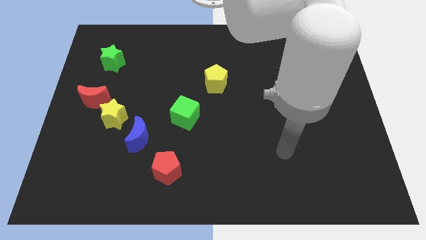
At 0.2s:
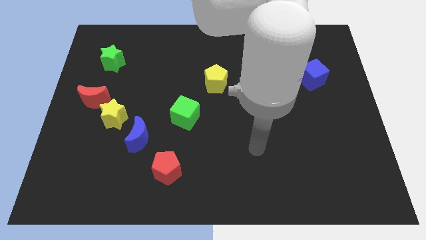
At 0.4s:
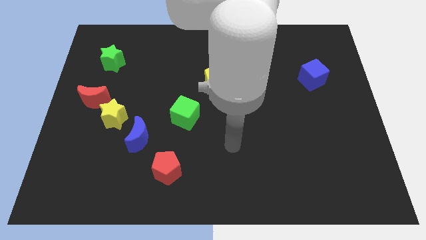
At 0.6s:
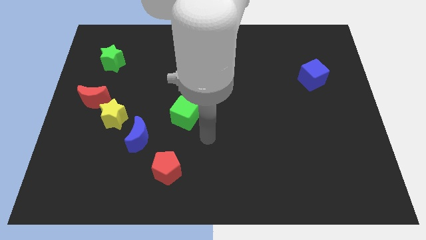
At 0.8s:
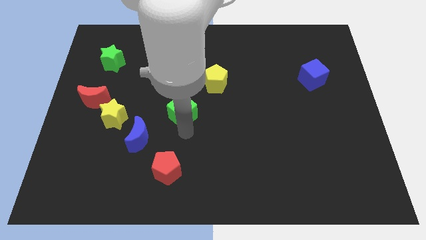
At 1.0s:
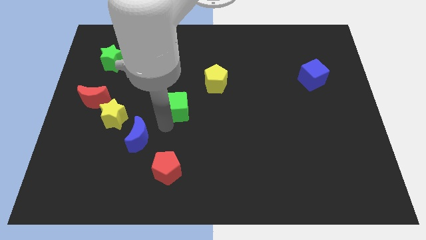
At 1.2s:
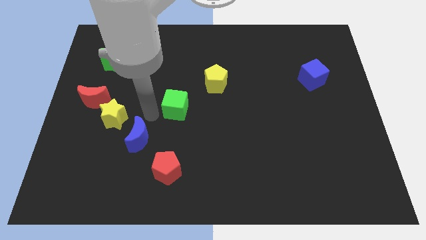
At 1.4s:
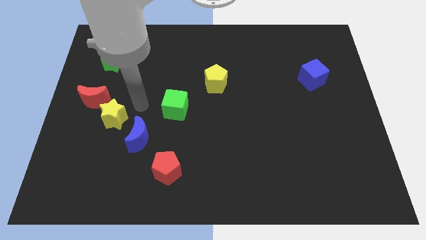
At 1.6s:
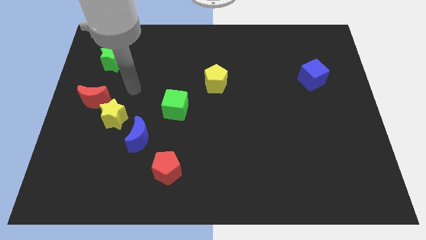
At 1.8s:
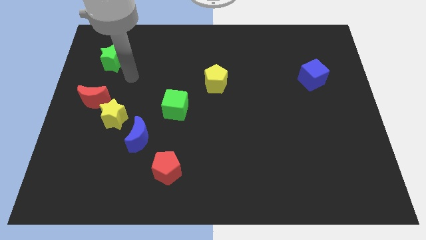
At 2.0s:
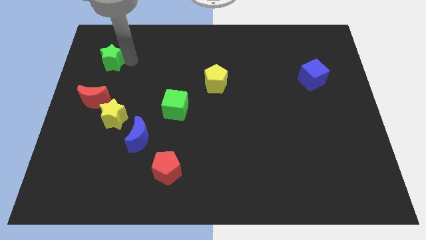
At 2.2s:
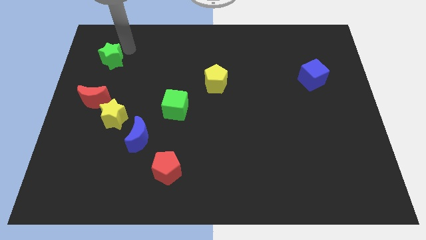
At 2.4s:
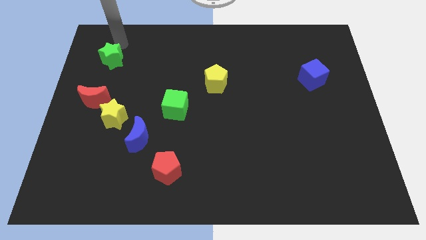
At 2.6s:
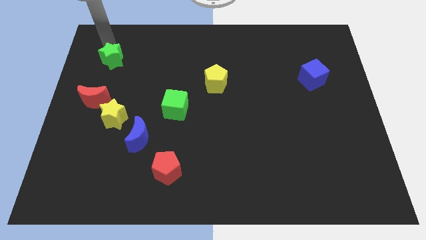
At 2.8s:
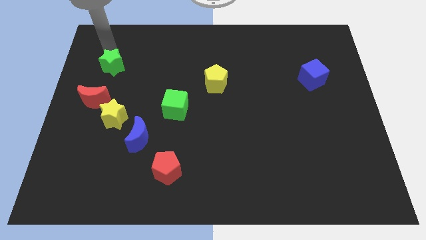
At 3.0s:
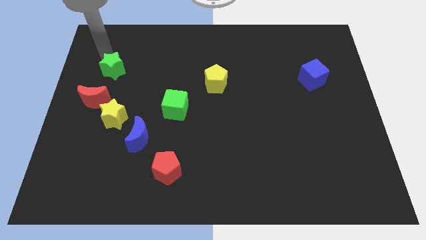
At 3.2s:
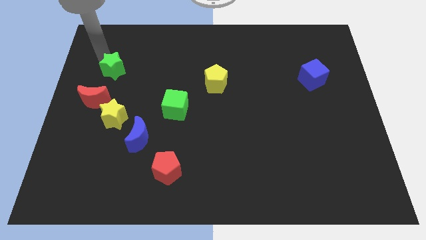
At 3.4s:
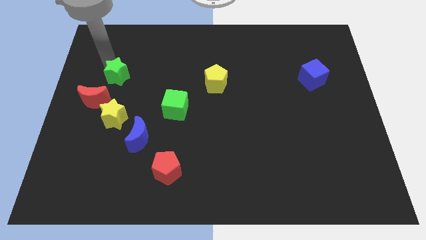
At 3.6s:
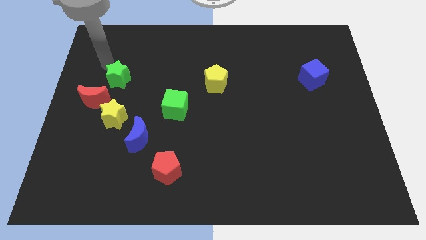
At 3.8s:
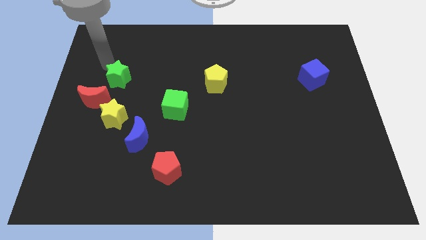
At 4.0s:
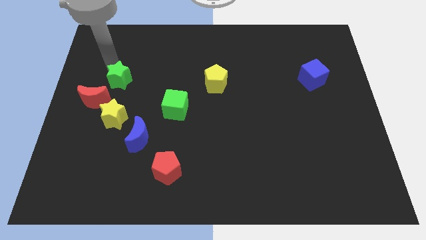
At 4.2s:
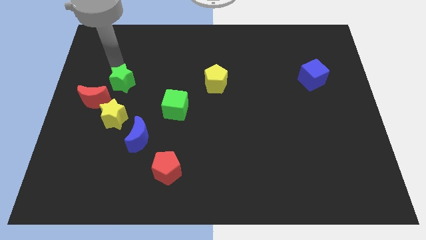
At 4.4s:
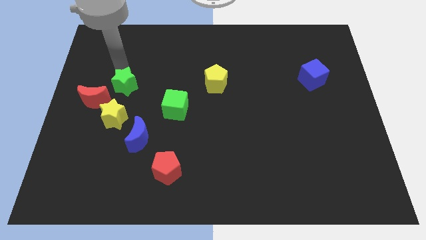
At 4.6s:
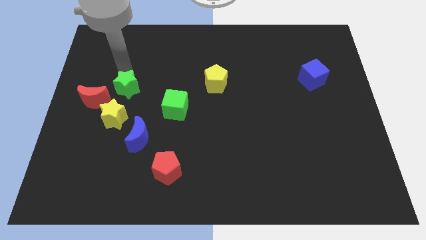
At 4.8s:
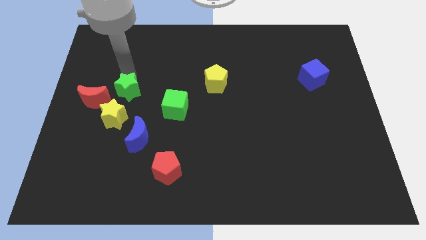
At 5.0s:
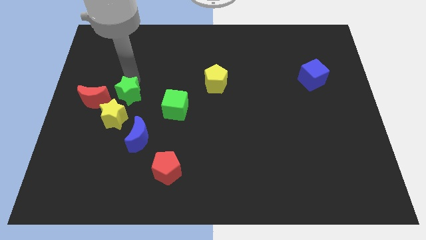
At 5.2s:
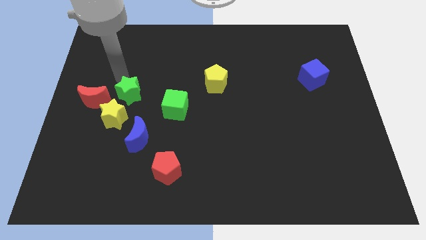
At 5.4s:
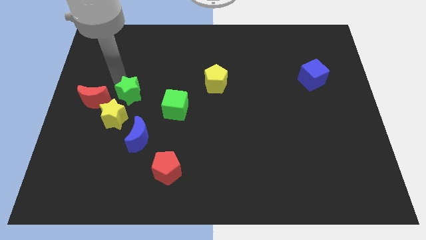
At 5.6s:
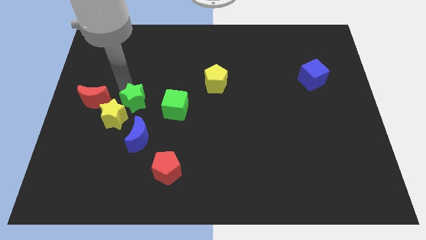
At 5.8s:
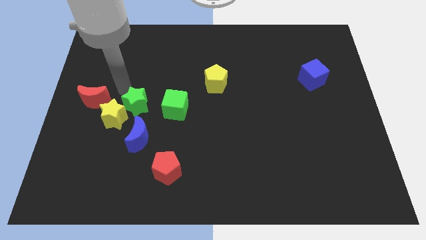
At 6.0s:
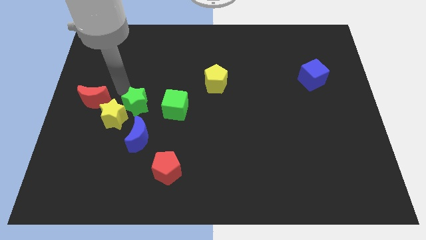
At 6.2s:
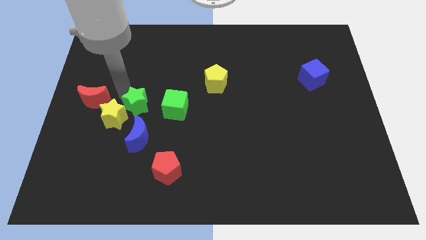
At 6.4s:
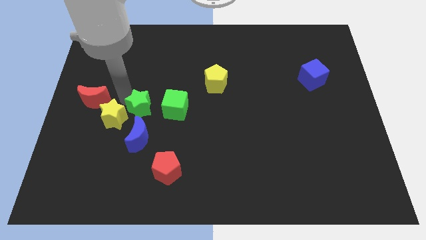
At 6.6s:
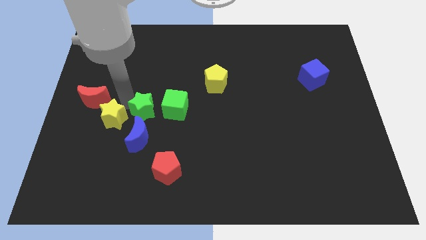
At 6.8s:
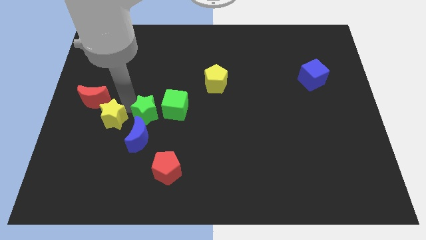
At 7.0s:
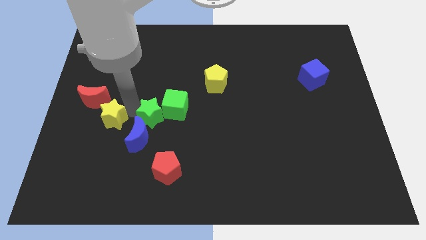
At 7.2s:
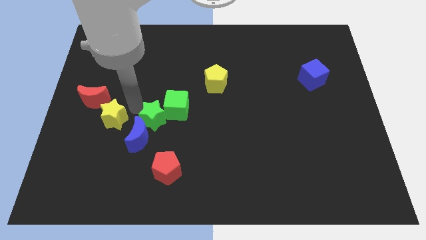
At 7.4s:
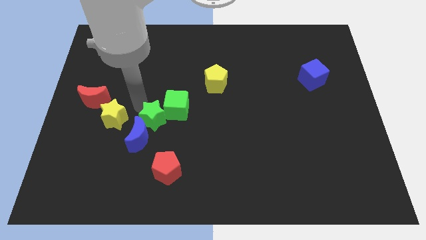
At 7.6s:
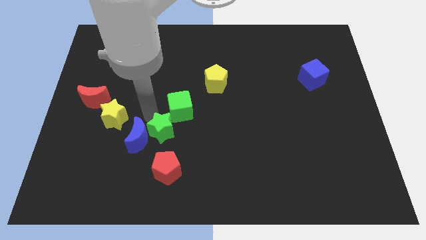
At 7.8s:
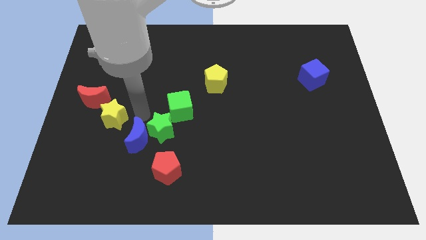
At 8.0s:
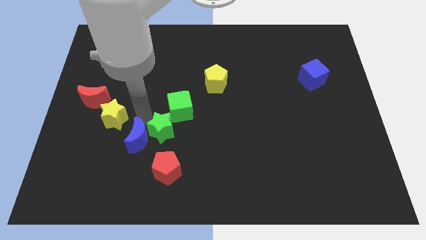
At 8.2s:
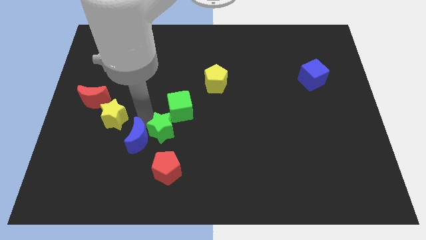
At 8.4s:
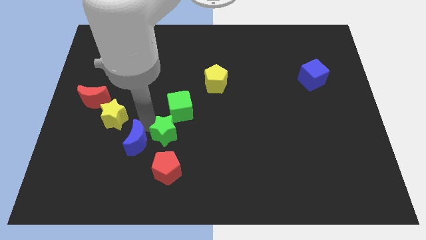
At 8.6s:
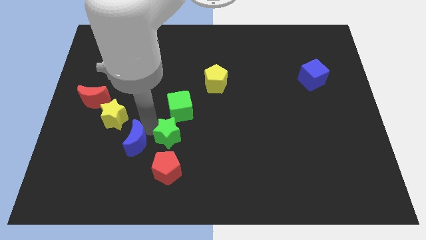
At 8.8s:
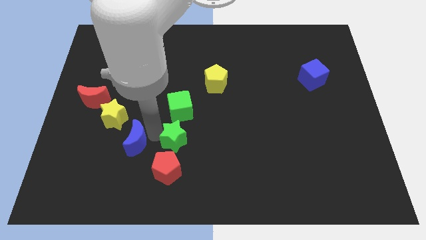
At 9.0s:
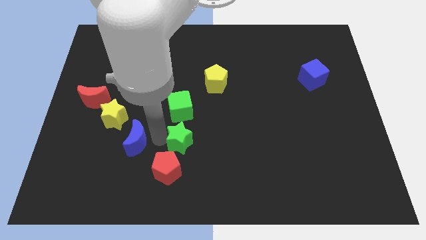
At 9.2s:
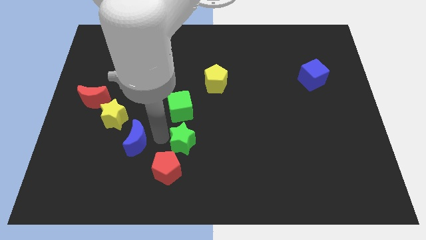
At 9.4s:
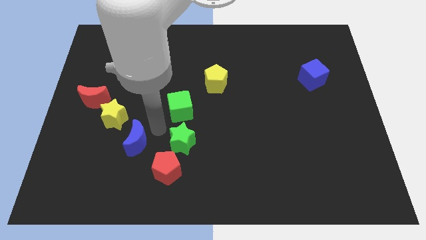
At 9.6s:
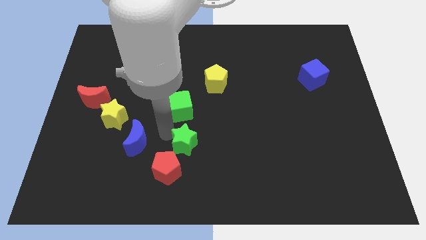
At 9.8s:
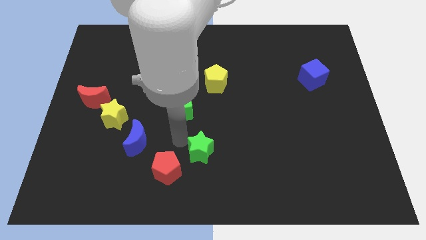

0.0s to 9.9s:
move the green star just right of the red pentagon

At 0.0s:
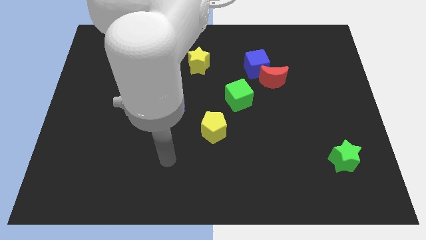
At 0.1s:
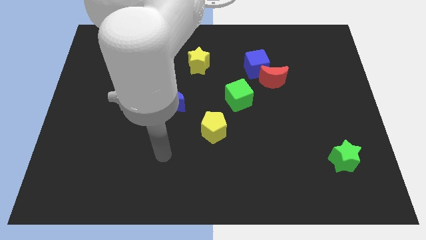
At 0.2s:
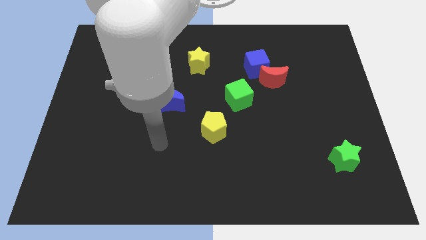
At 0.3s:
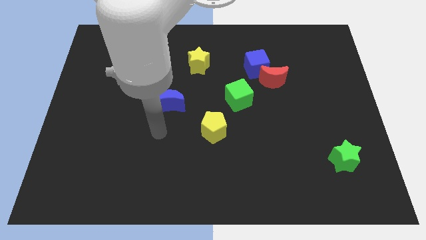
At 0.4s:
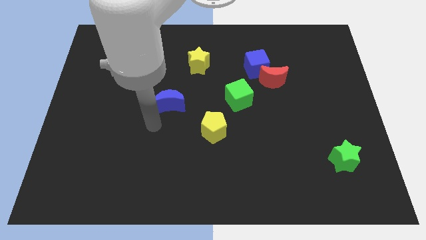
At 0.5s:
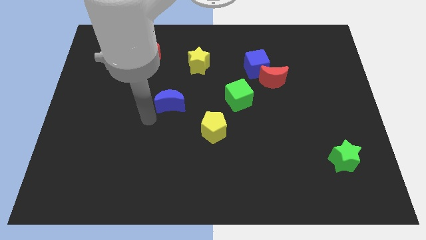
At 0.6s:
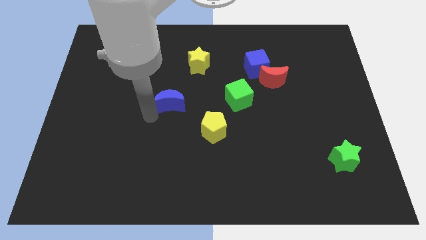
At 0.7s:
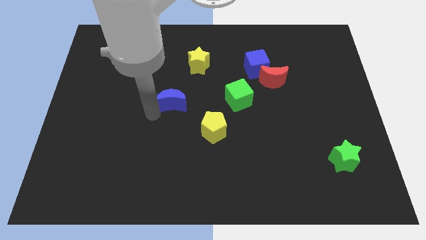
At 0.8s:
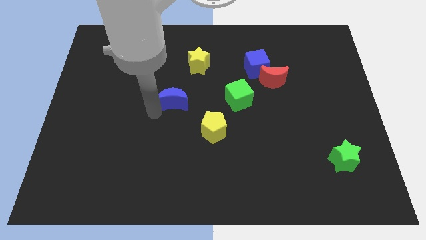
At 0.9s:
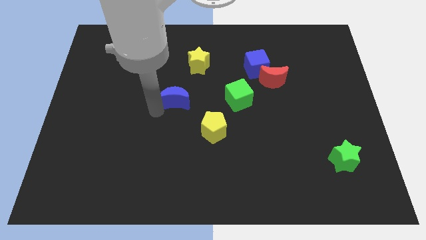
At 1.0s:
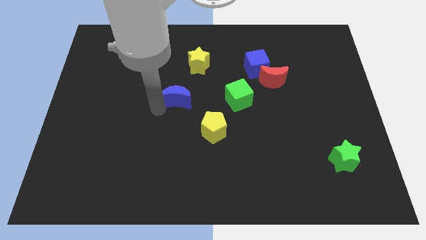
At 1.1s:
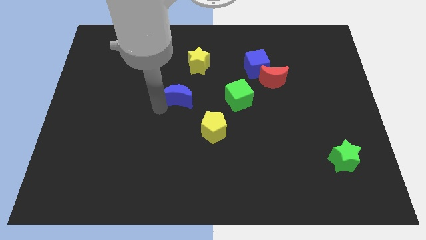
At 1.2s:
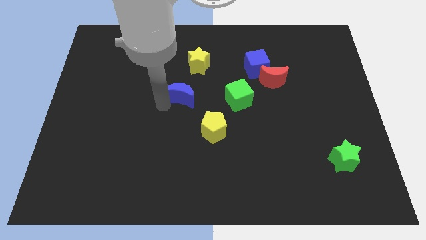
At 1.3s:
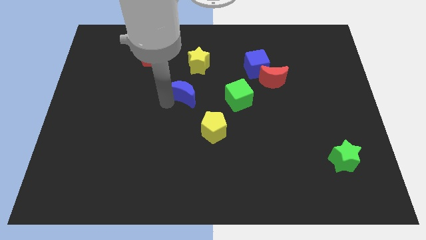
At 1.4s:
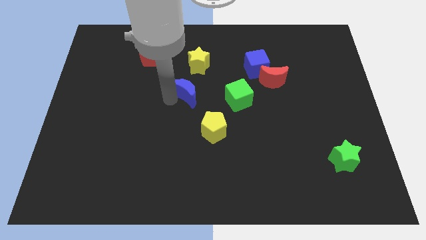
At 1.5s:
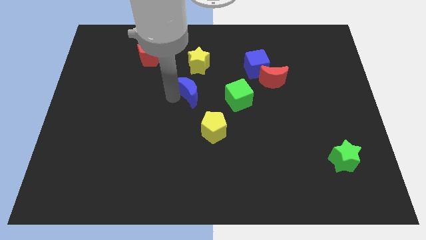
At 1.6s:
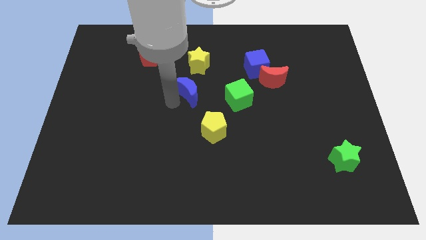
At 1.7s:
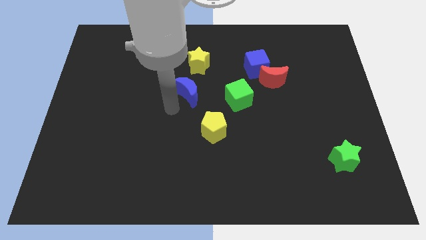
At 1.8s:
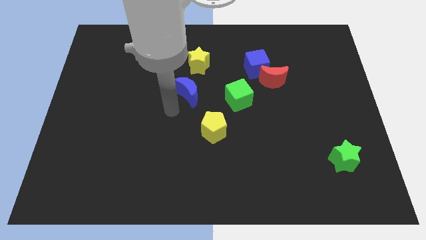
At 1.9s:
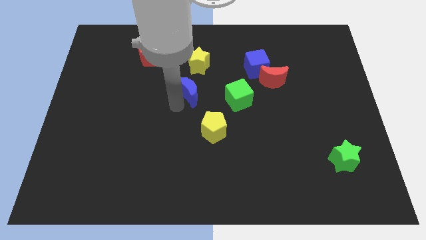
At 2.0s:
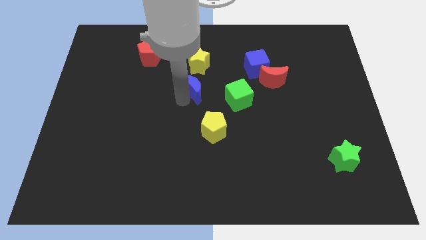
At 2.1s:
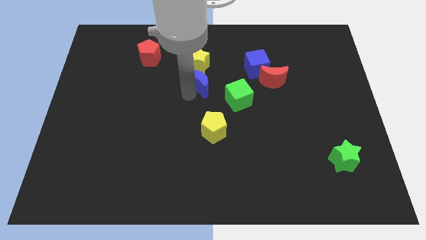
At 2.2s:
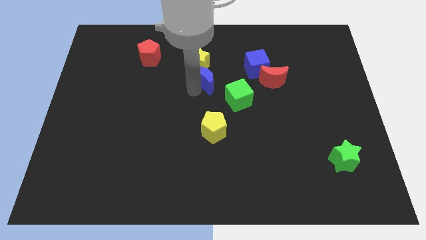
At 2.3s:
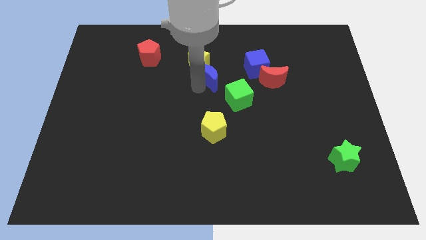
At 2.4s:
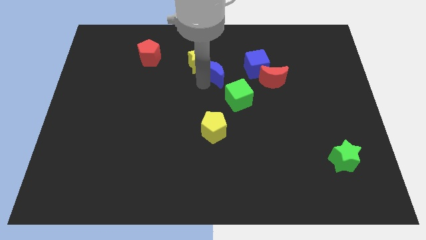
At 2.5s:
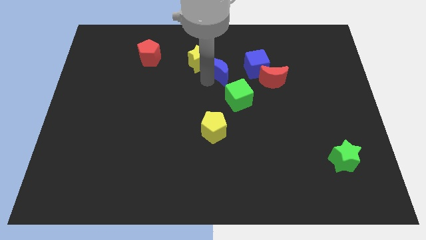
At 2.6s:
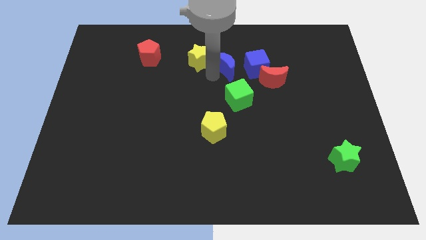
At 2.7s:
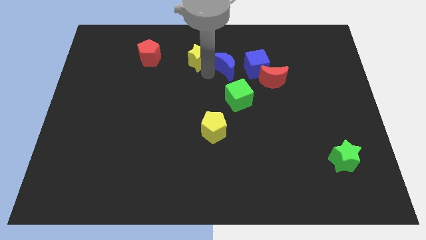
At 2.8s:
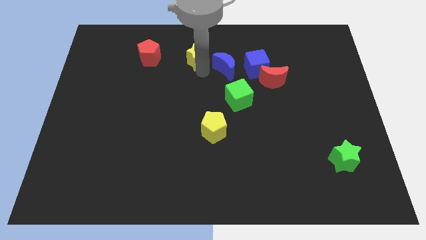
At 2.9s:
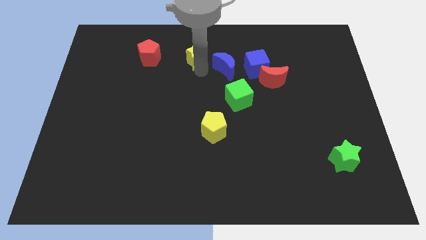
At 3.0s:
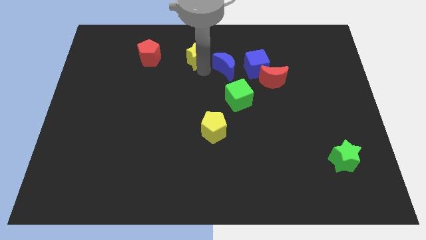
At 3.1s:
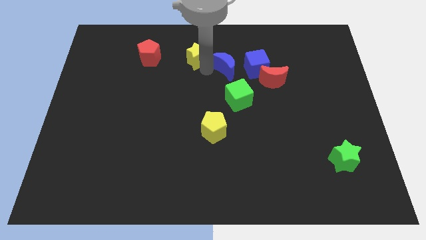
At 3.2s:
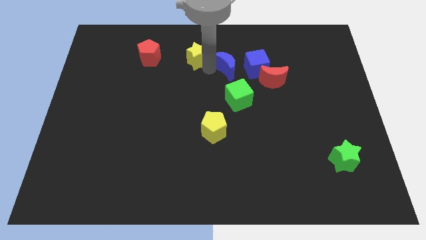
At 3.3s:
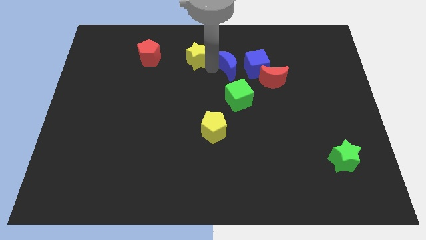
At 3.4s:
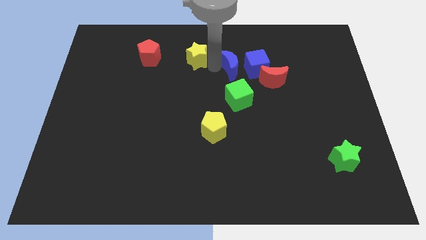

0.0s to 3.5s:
put the blue moon to the top left of the red moon
